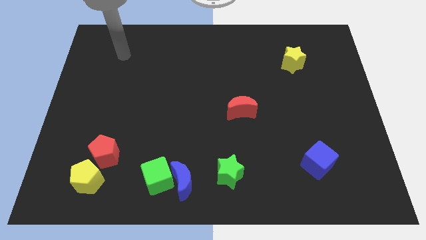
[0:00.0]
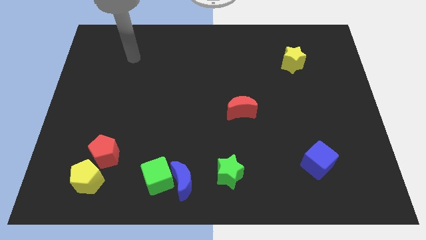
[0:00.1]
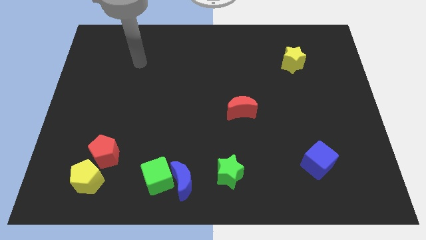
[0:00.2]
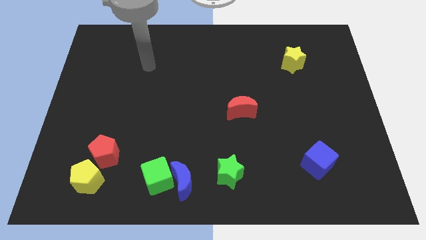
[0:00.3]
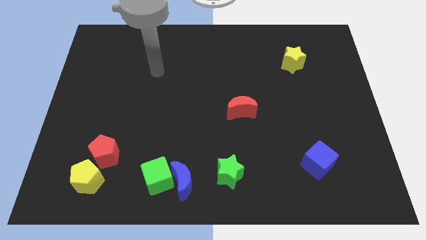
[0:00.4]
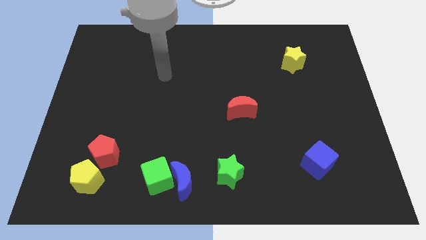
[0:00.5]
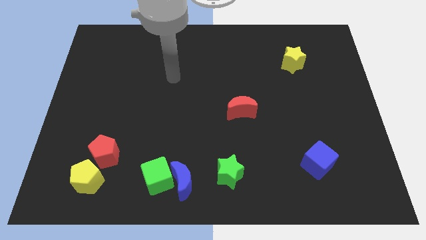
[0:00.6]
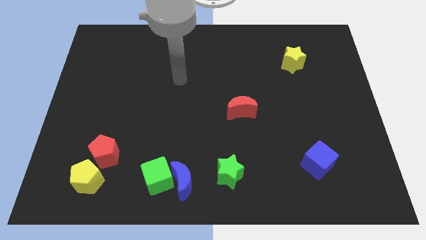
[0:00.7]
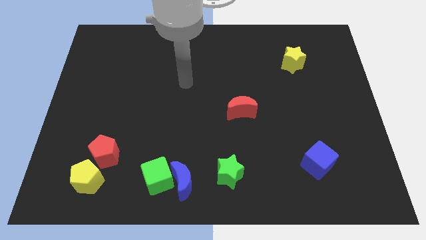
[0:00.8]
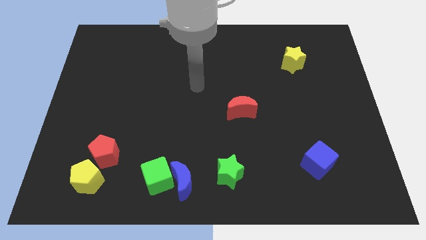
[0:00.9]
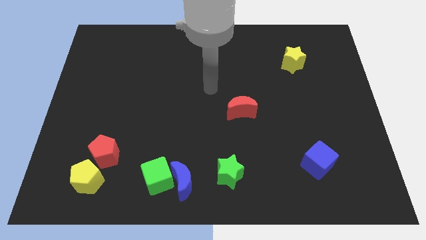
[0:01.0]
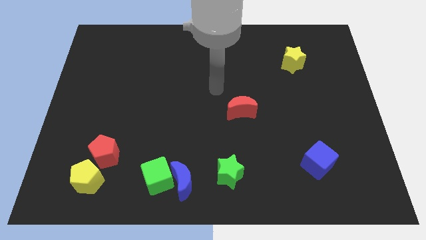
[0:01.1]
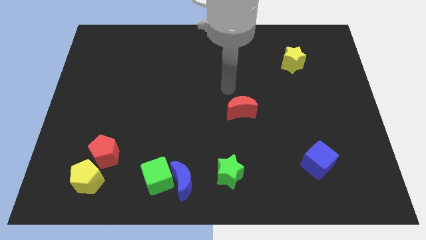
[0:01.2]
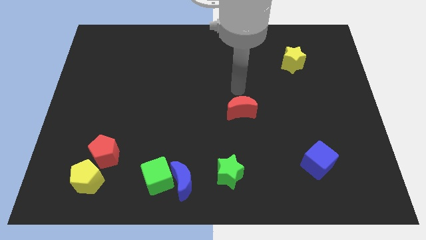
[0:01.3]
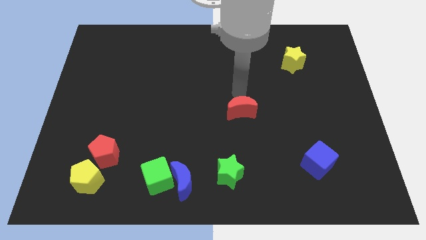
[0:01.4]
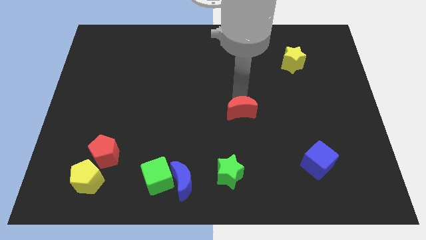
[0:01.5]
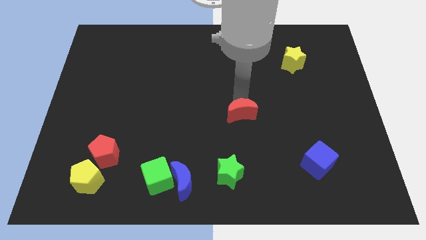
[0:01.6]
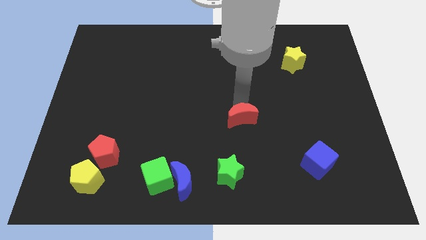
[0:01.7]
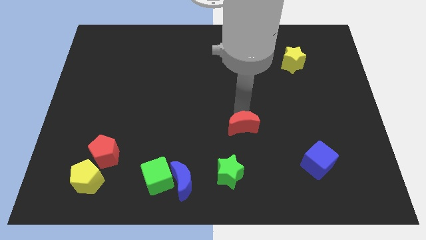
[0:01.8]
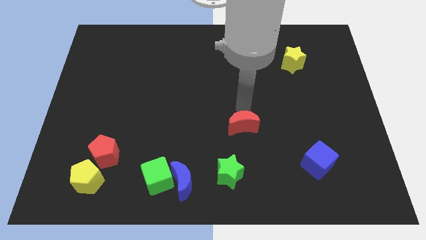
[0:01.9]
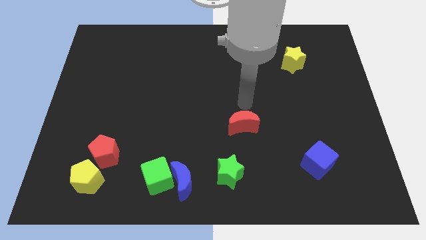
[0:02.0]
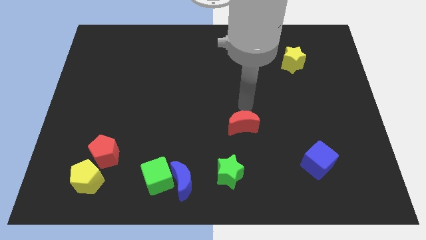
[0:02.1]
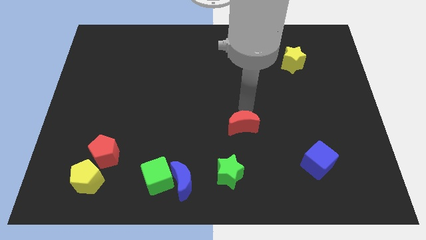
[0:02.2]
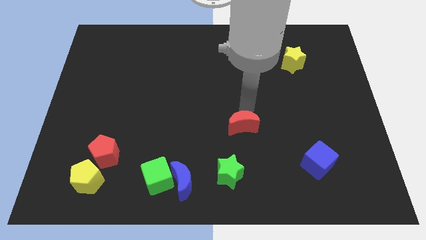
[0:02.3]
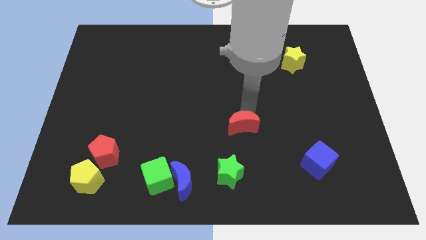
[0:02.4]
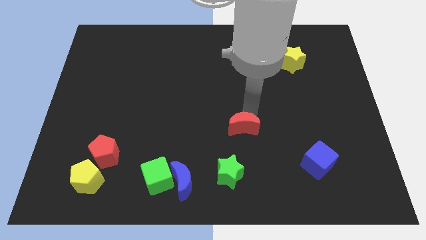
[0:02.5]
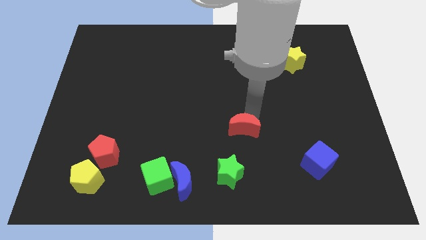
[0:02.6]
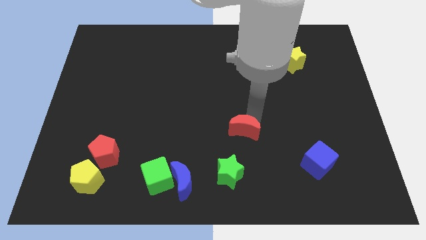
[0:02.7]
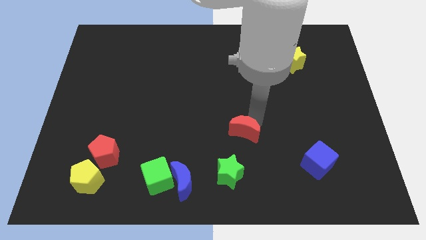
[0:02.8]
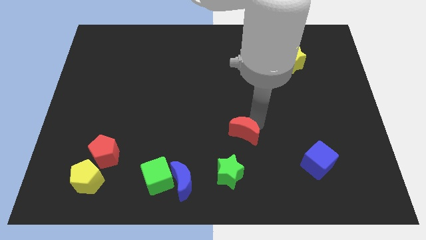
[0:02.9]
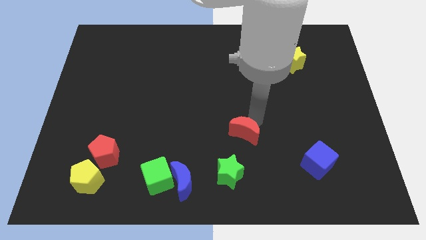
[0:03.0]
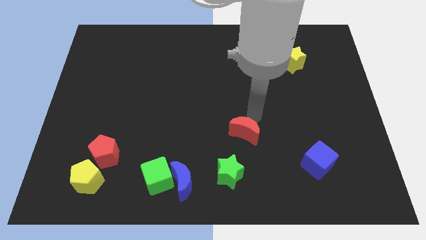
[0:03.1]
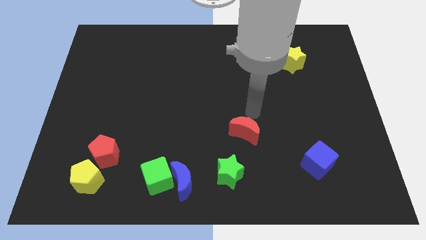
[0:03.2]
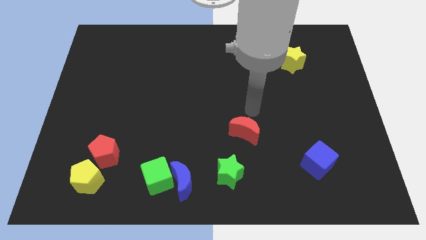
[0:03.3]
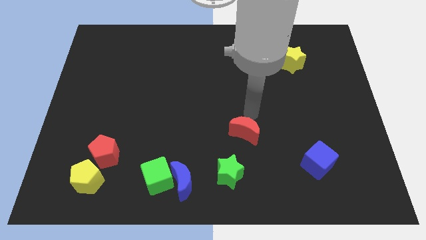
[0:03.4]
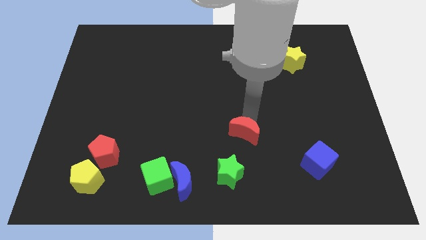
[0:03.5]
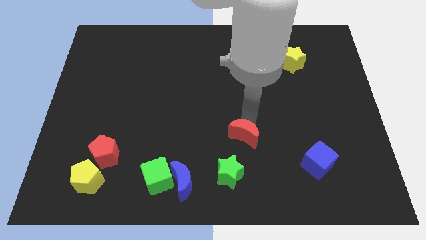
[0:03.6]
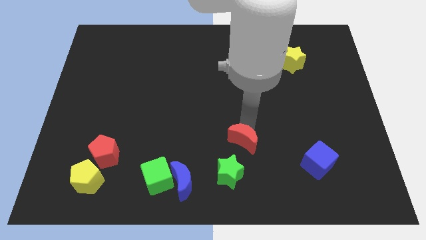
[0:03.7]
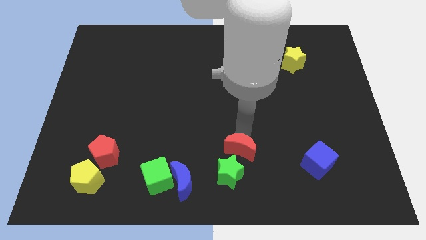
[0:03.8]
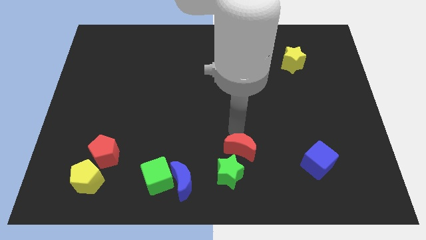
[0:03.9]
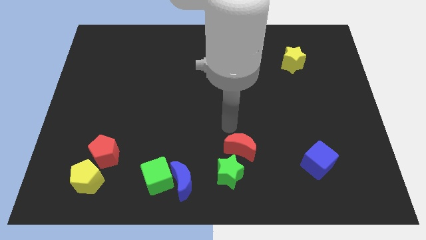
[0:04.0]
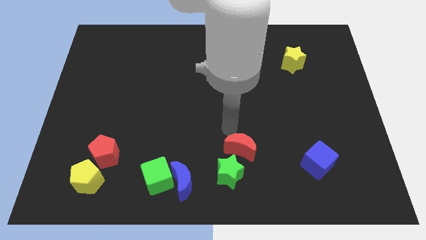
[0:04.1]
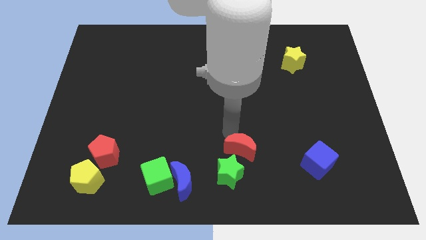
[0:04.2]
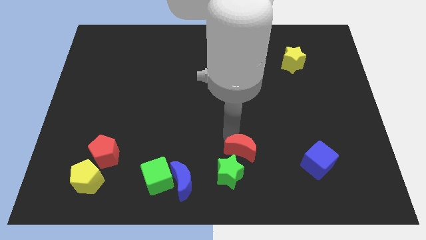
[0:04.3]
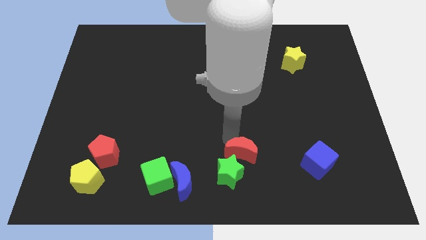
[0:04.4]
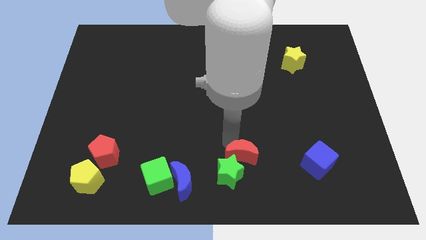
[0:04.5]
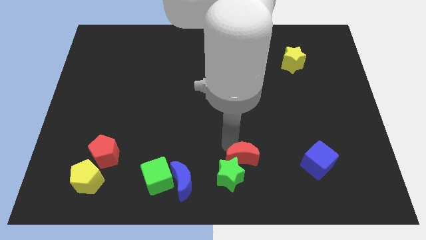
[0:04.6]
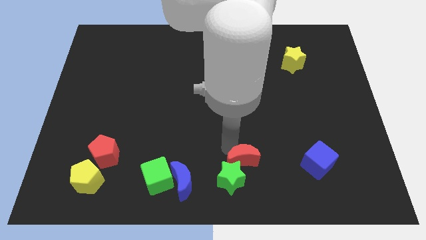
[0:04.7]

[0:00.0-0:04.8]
push the red moon to the bottom

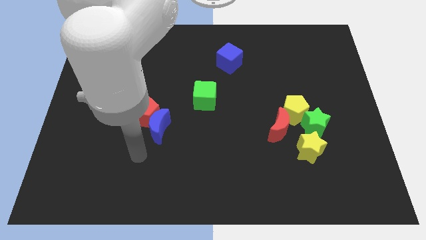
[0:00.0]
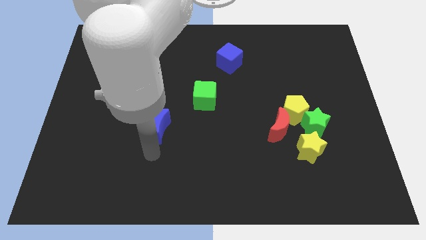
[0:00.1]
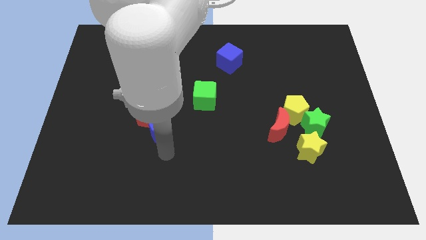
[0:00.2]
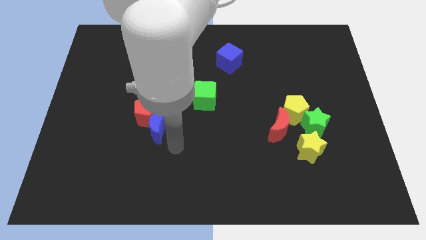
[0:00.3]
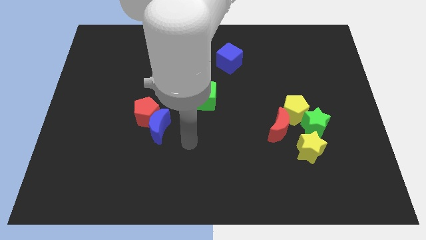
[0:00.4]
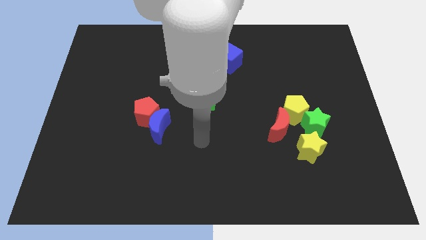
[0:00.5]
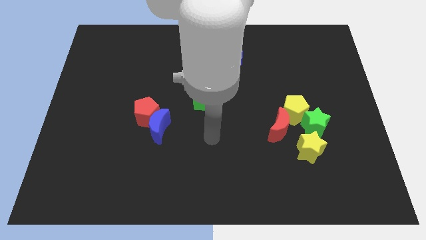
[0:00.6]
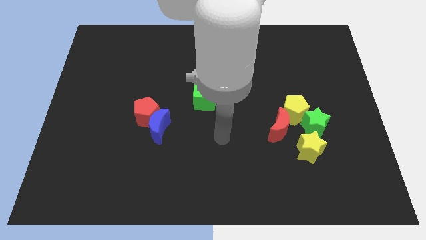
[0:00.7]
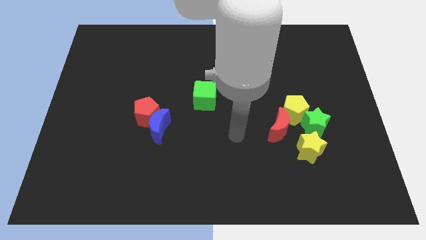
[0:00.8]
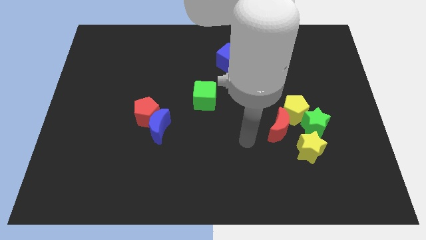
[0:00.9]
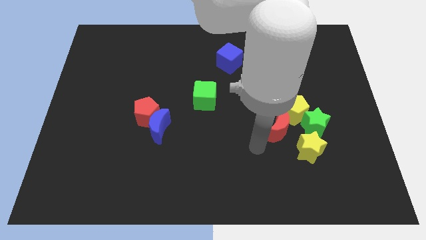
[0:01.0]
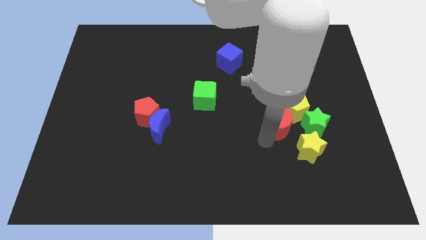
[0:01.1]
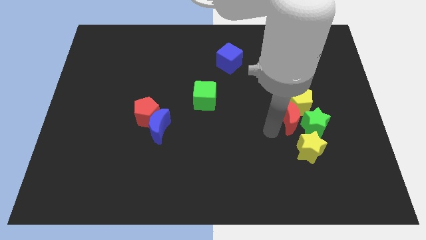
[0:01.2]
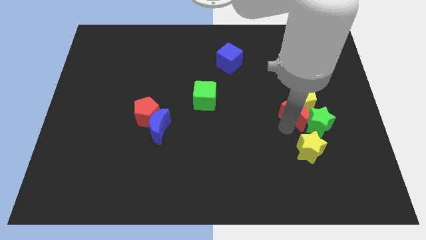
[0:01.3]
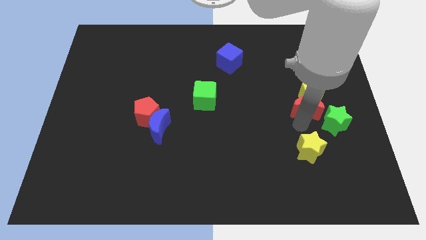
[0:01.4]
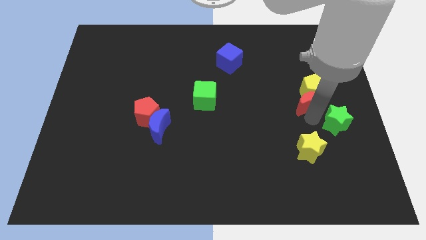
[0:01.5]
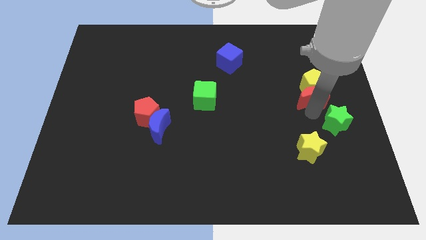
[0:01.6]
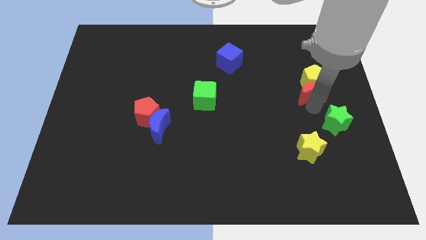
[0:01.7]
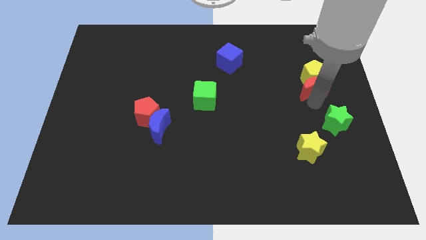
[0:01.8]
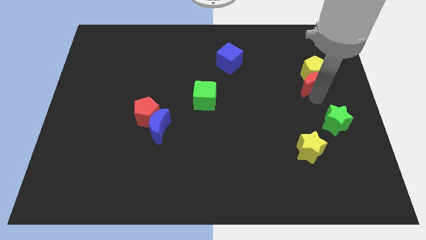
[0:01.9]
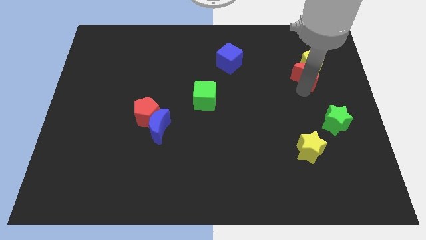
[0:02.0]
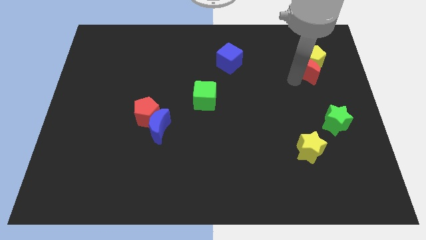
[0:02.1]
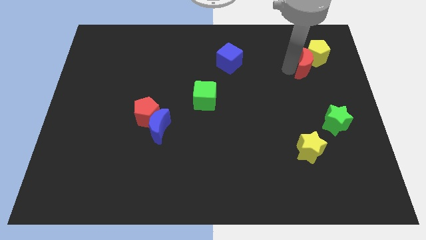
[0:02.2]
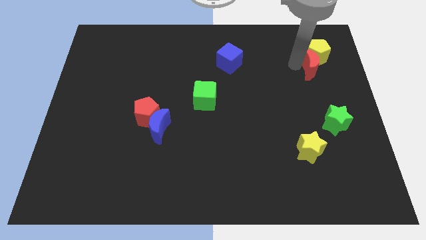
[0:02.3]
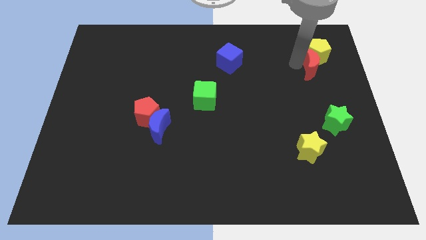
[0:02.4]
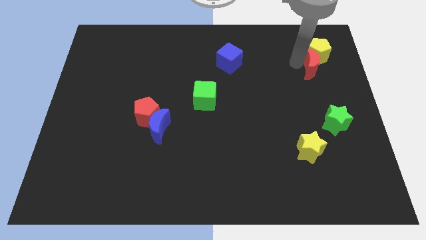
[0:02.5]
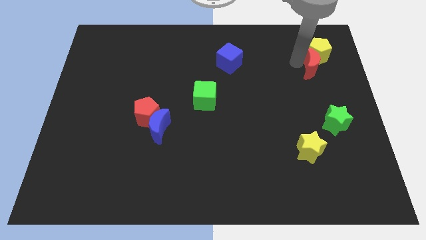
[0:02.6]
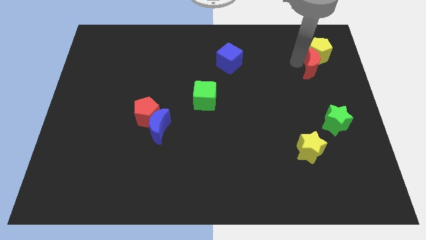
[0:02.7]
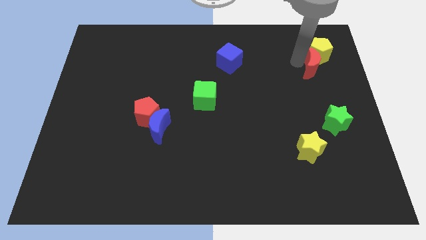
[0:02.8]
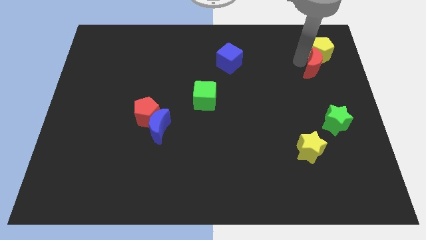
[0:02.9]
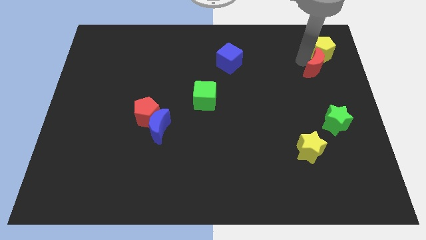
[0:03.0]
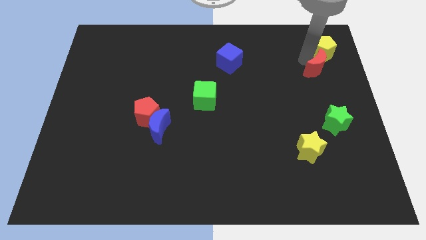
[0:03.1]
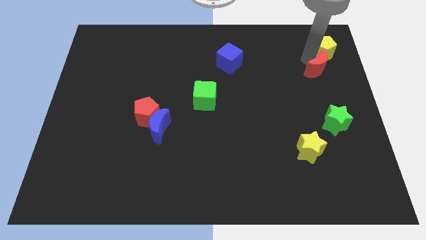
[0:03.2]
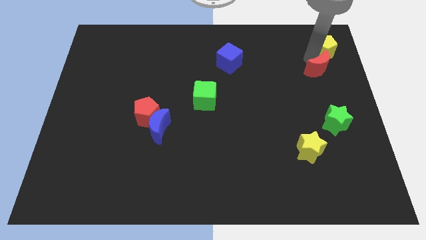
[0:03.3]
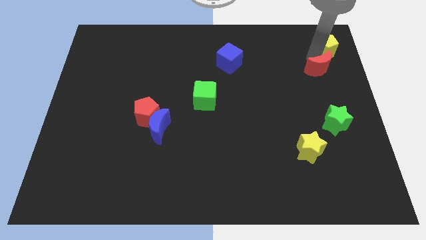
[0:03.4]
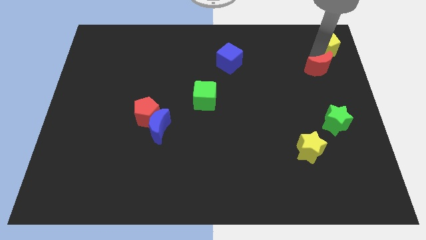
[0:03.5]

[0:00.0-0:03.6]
push the yellow pentagon to the upper right corner
